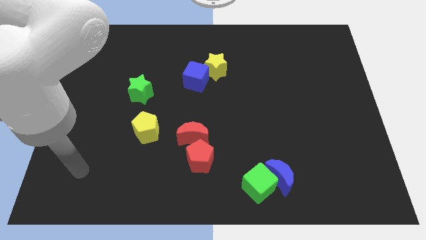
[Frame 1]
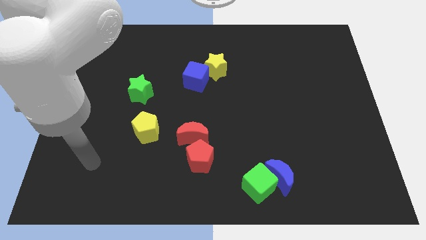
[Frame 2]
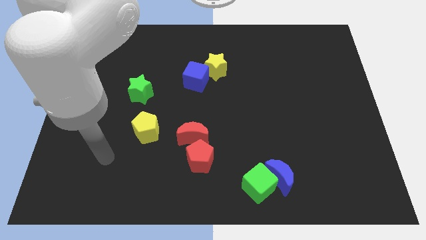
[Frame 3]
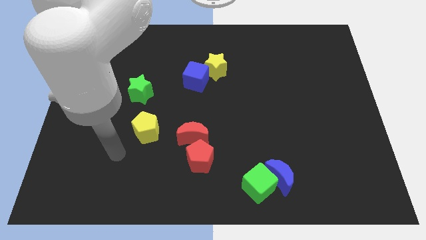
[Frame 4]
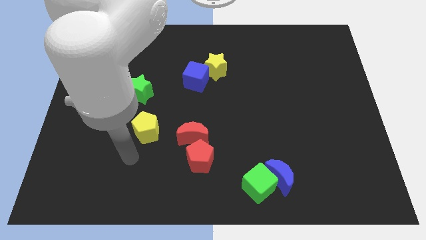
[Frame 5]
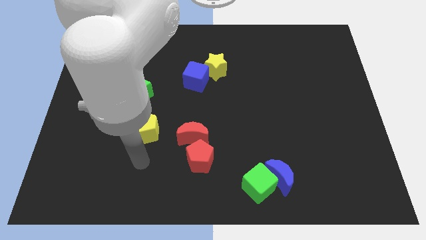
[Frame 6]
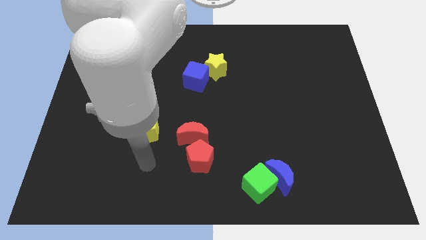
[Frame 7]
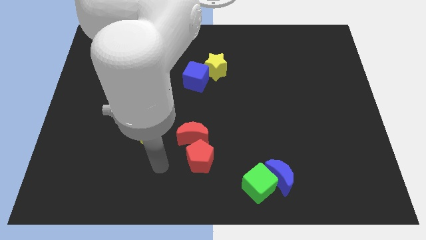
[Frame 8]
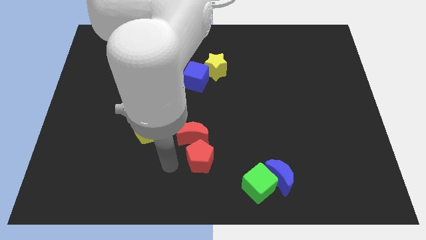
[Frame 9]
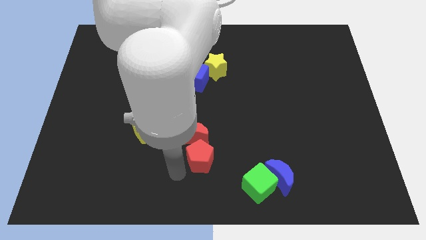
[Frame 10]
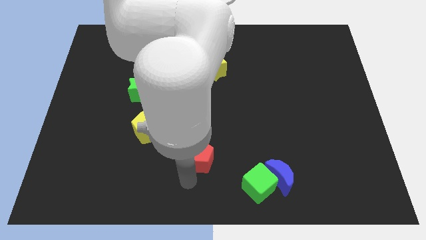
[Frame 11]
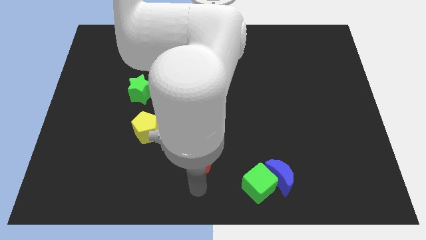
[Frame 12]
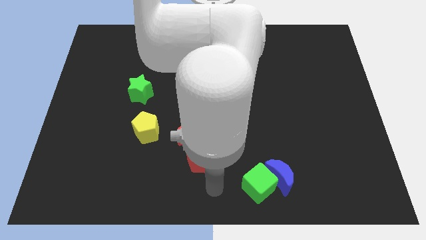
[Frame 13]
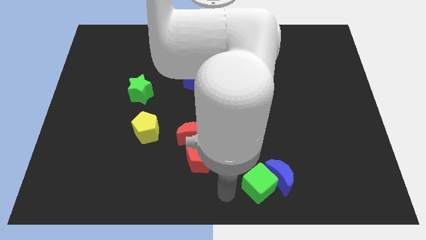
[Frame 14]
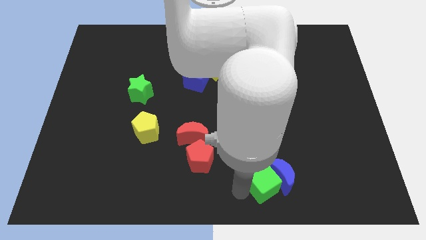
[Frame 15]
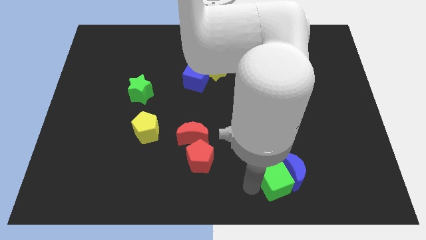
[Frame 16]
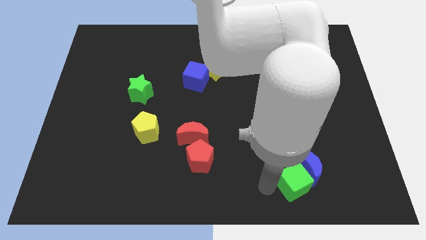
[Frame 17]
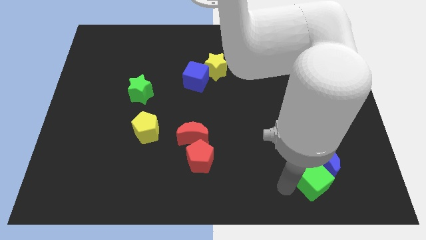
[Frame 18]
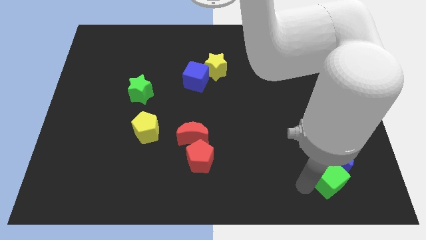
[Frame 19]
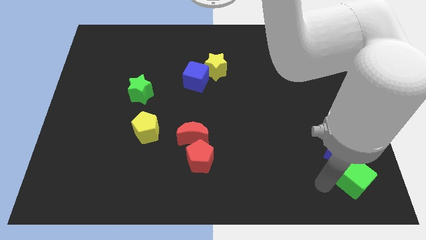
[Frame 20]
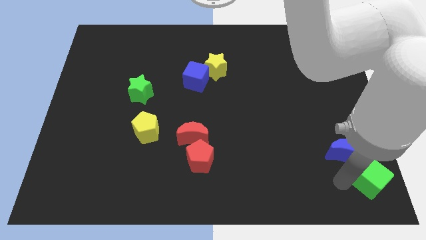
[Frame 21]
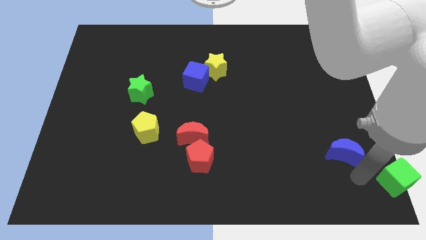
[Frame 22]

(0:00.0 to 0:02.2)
pull the blue moon apart from the green cube

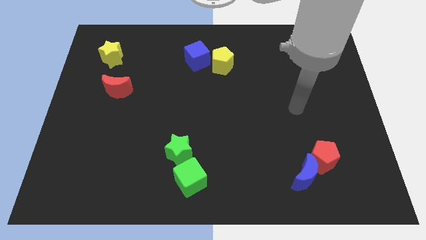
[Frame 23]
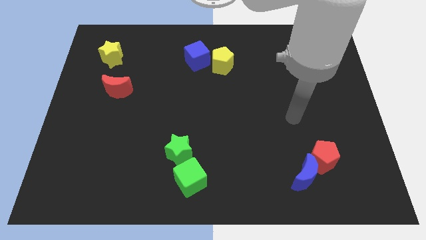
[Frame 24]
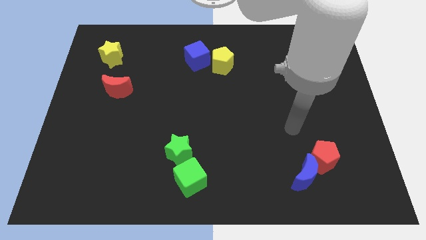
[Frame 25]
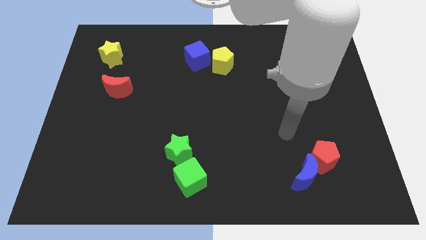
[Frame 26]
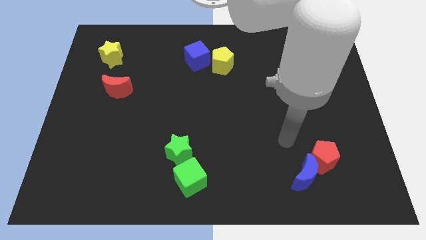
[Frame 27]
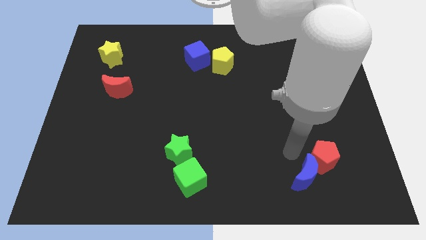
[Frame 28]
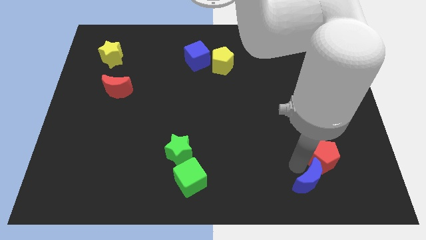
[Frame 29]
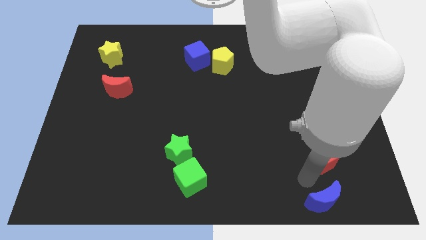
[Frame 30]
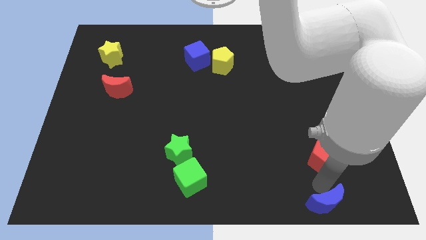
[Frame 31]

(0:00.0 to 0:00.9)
move the red pentagon away from the blue moon

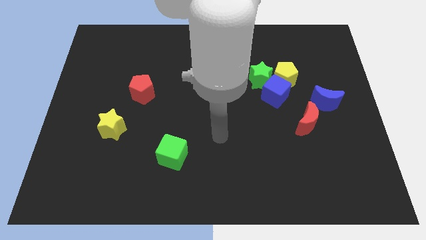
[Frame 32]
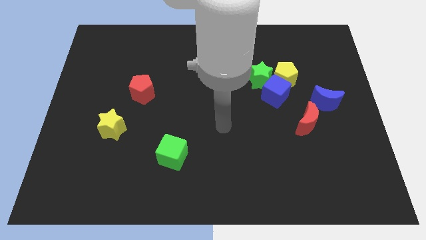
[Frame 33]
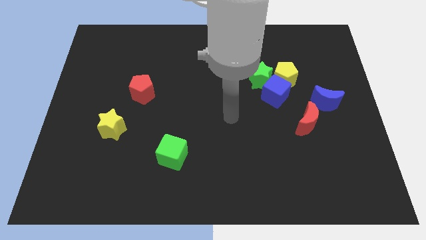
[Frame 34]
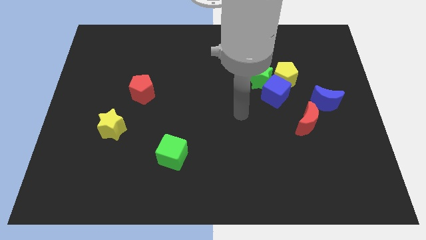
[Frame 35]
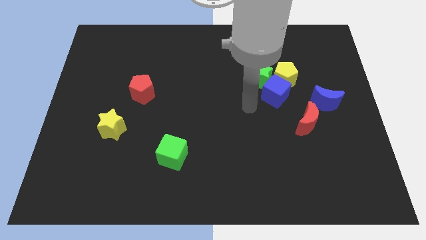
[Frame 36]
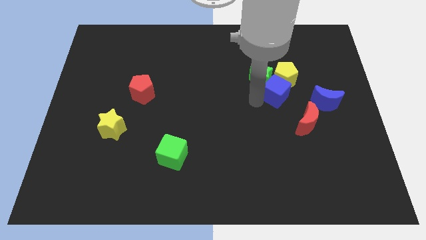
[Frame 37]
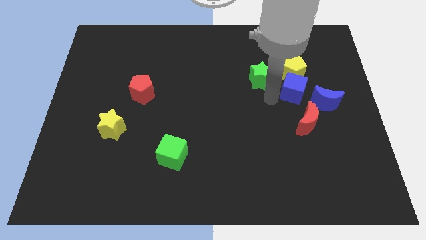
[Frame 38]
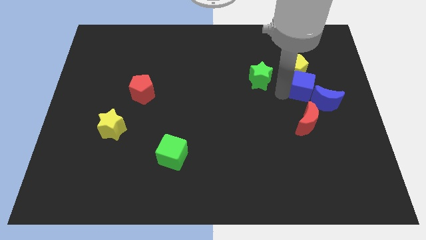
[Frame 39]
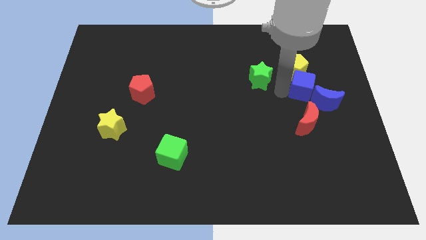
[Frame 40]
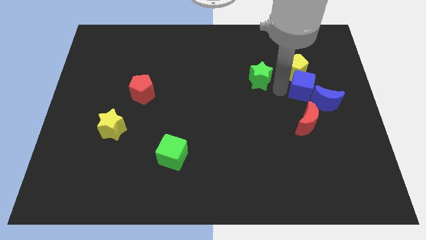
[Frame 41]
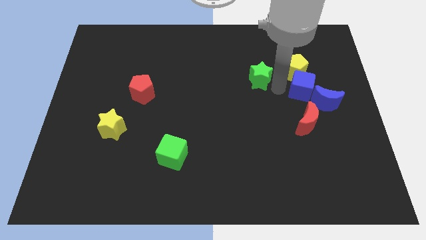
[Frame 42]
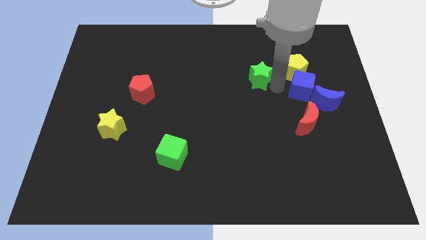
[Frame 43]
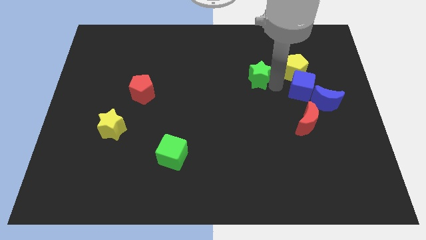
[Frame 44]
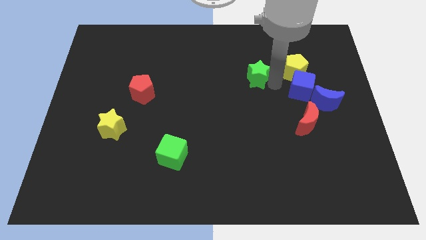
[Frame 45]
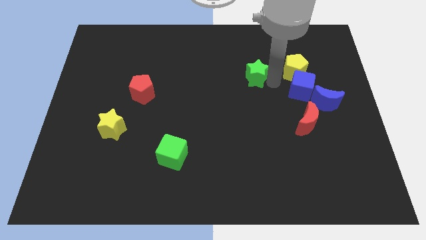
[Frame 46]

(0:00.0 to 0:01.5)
pull the green star apart from the yellow pentagon and blue cube

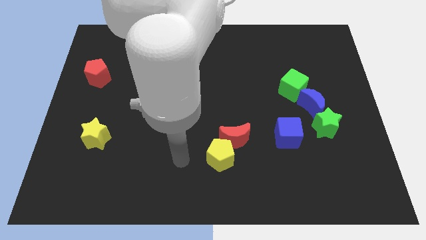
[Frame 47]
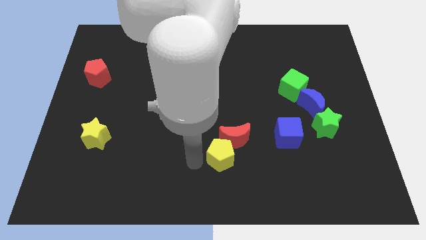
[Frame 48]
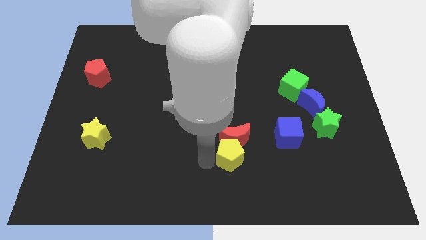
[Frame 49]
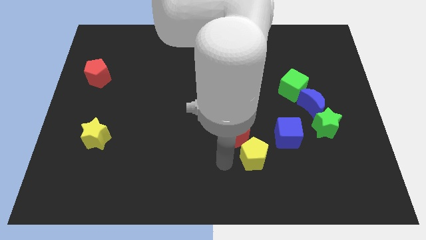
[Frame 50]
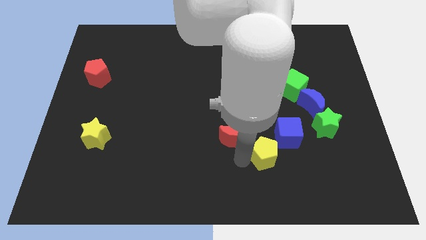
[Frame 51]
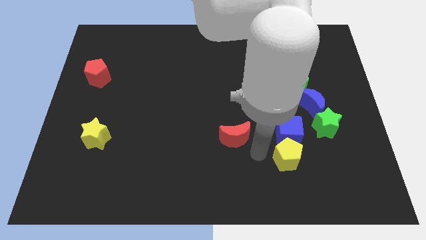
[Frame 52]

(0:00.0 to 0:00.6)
move the red moon away from the yellow pentagon

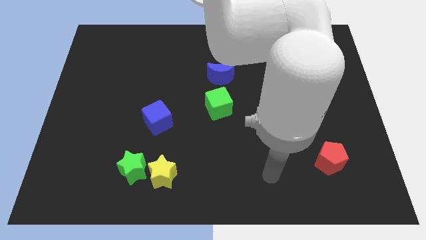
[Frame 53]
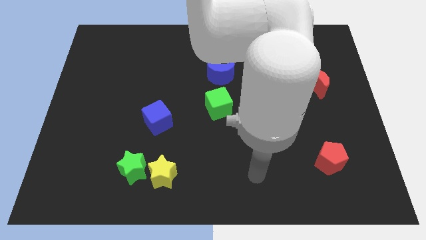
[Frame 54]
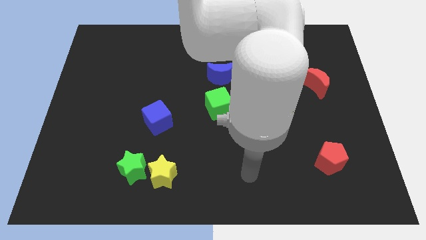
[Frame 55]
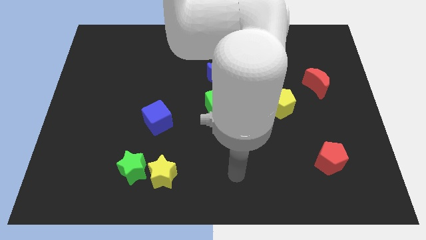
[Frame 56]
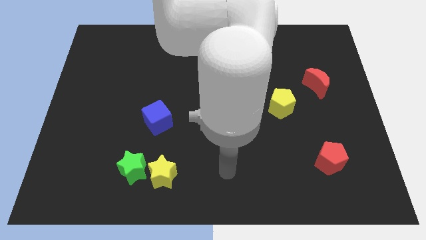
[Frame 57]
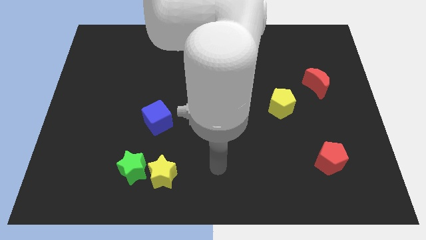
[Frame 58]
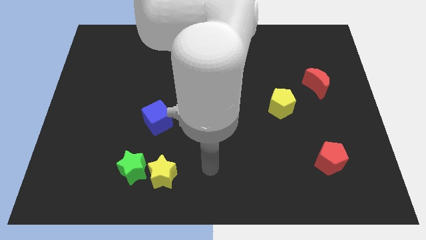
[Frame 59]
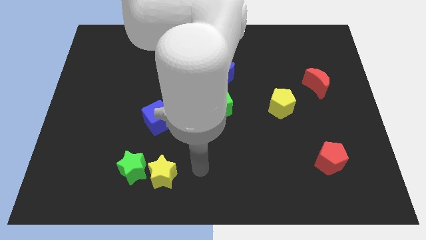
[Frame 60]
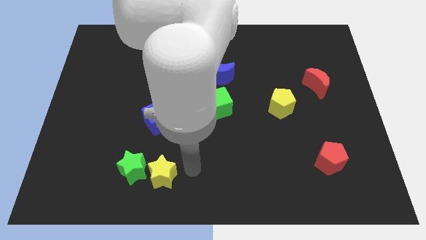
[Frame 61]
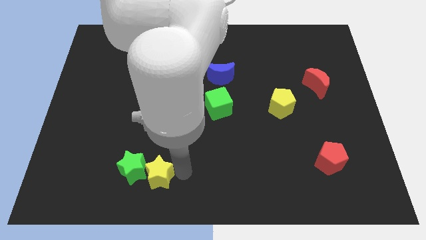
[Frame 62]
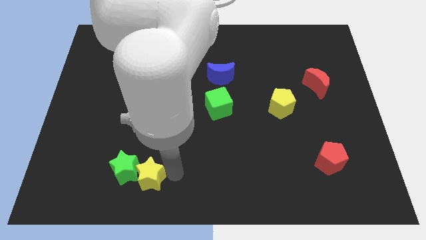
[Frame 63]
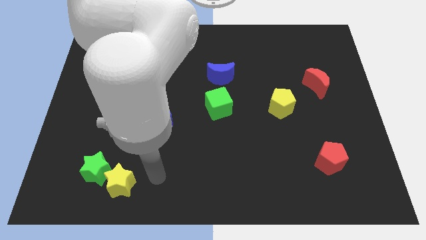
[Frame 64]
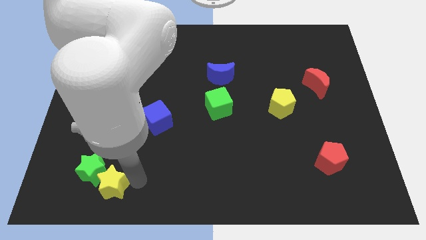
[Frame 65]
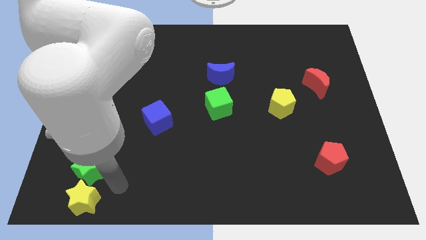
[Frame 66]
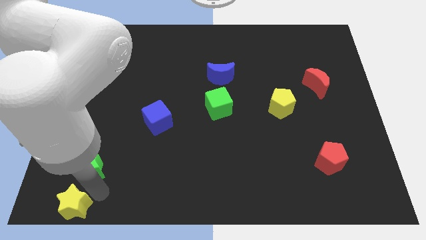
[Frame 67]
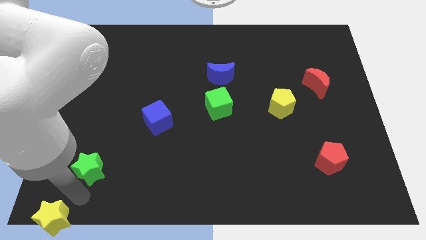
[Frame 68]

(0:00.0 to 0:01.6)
separate the green star from the yellow star

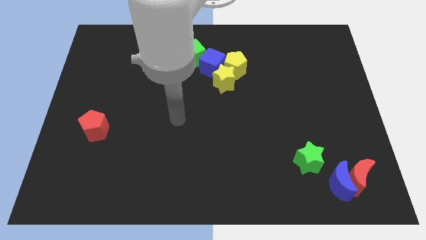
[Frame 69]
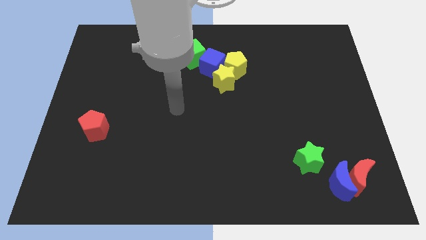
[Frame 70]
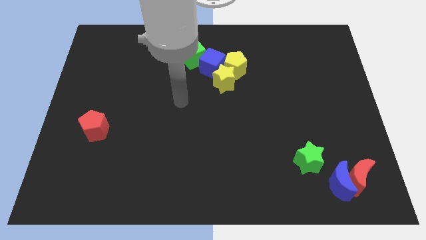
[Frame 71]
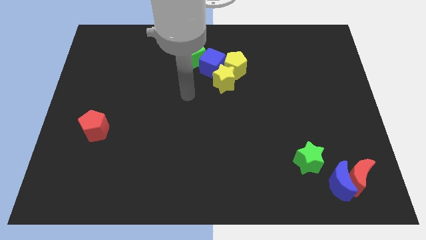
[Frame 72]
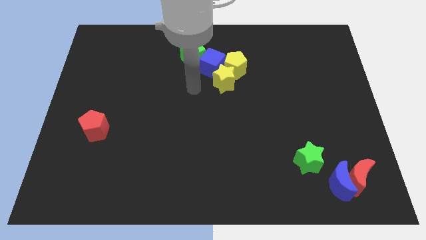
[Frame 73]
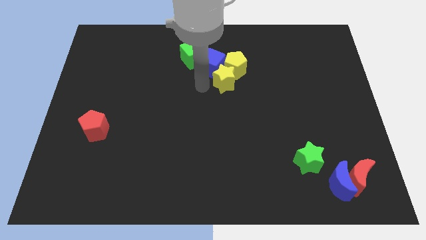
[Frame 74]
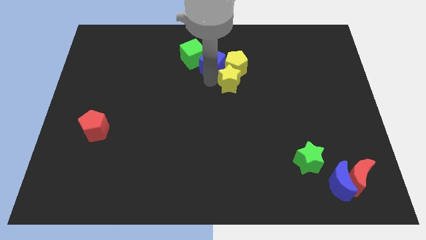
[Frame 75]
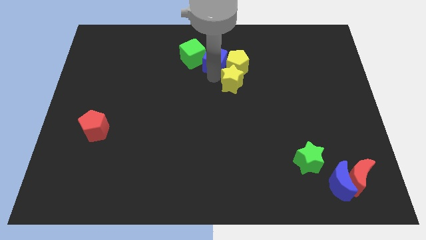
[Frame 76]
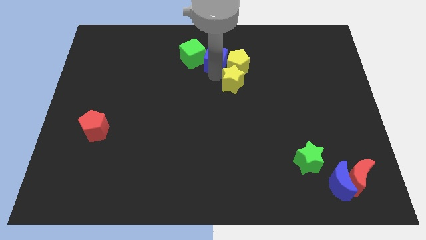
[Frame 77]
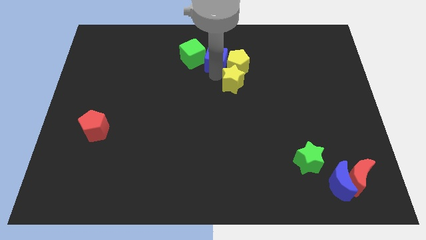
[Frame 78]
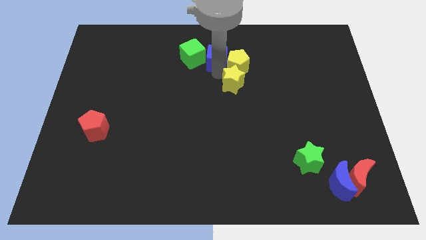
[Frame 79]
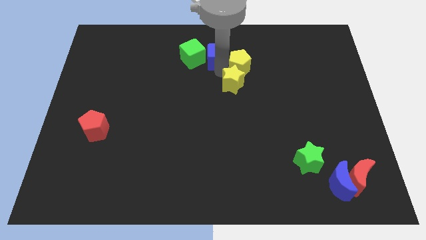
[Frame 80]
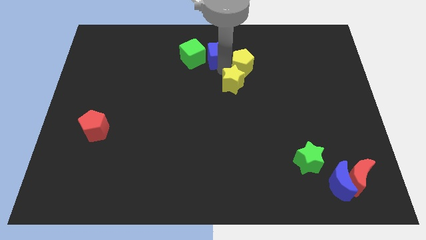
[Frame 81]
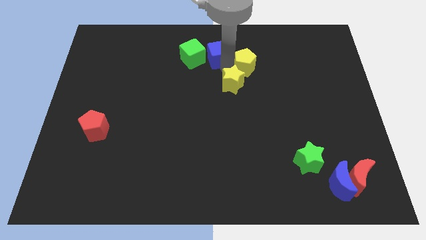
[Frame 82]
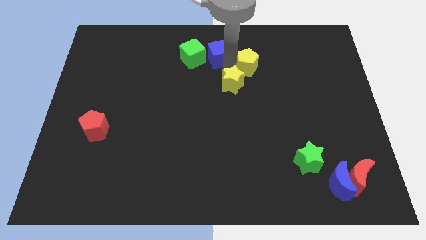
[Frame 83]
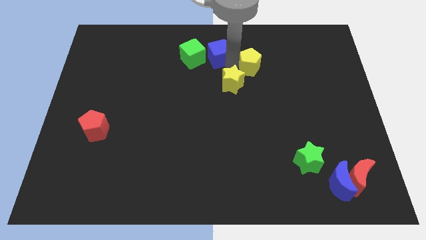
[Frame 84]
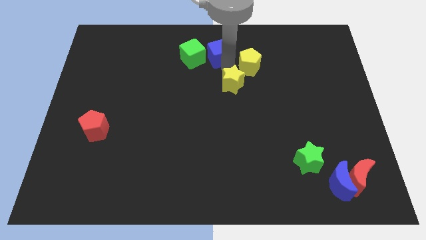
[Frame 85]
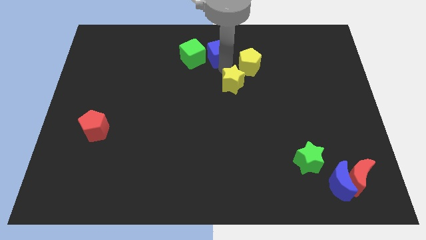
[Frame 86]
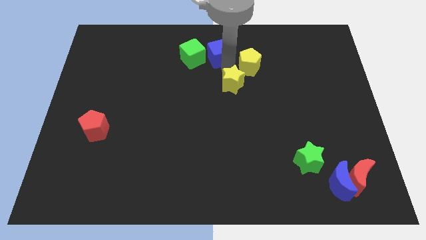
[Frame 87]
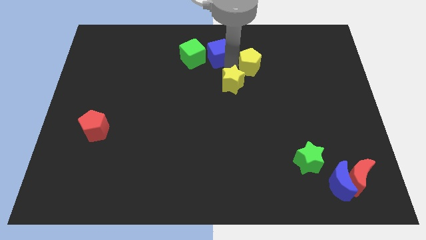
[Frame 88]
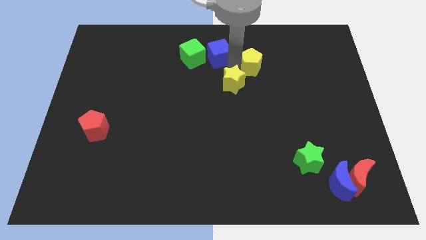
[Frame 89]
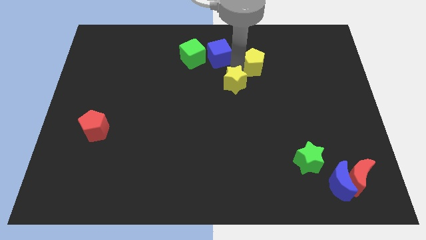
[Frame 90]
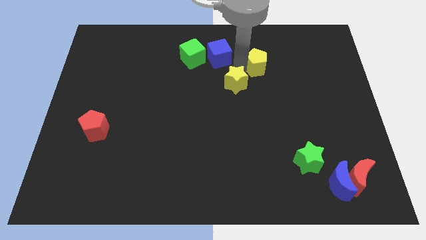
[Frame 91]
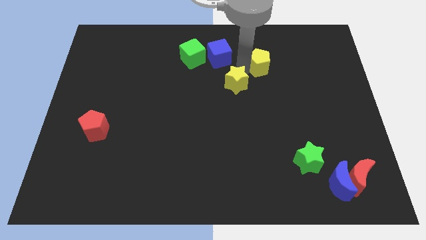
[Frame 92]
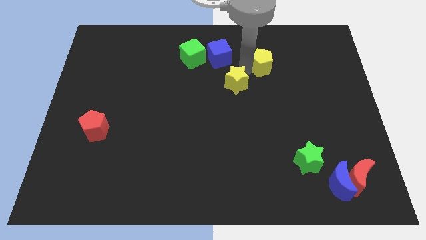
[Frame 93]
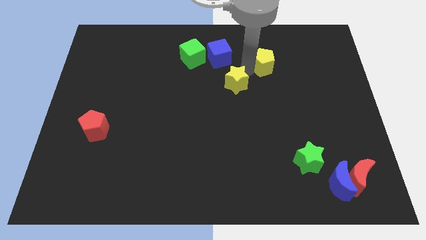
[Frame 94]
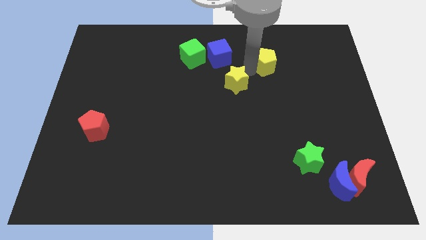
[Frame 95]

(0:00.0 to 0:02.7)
separate the yellow pentagon from the yellow star and blue cube

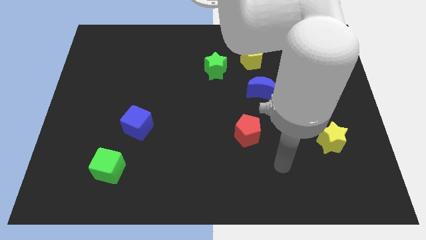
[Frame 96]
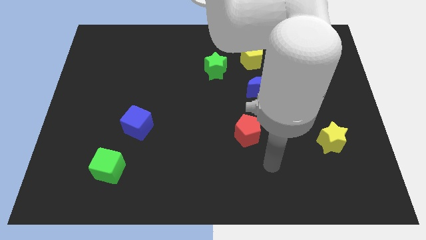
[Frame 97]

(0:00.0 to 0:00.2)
pull the green star apart from the yellow pentagon
